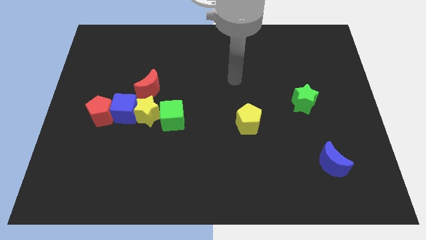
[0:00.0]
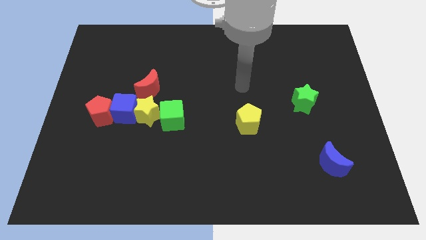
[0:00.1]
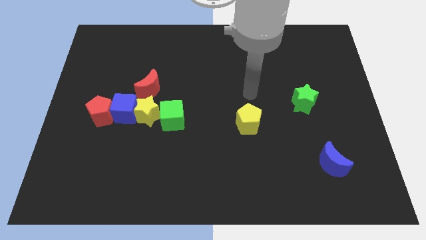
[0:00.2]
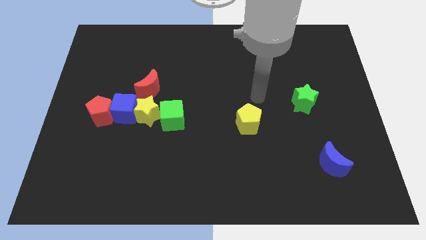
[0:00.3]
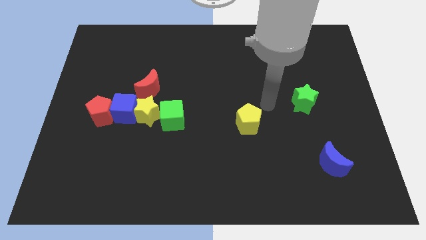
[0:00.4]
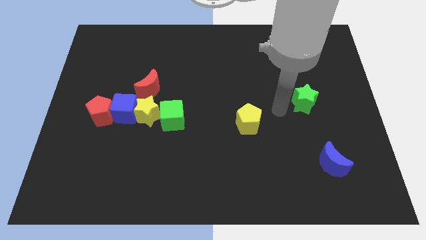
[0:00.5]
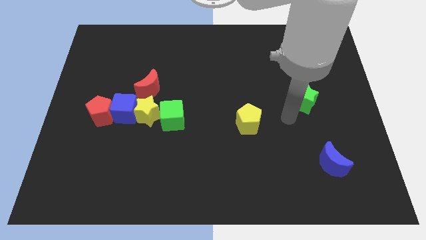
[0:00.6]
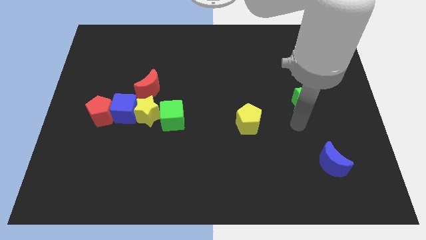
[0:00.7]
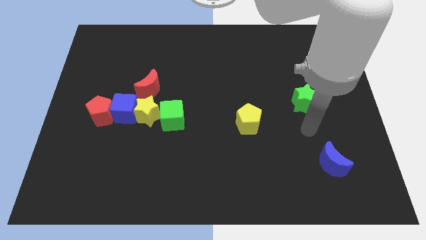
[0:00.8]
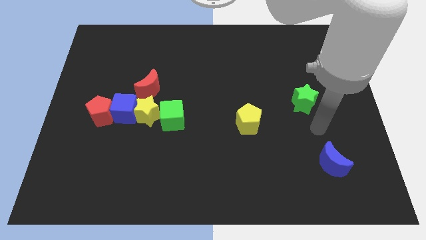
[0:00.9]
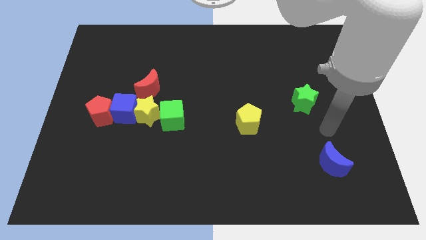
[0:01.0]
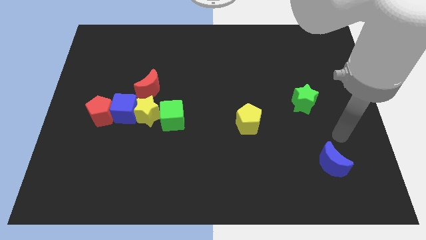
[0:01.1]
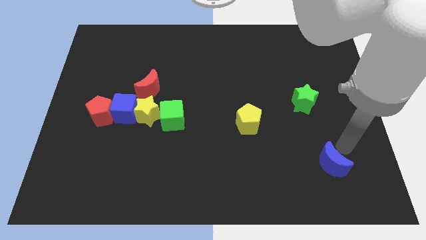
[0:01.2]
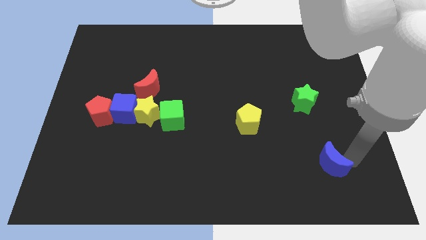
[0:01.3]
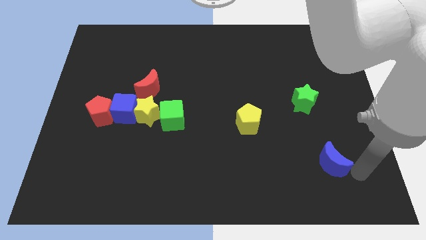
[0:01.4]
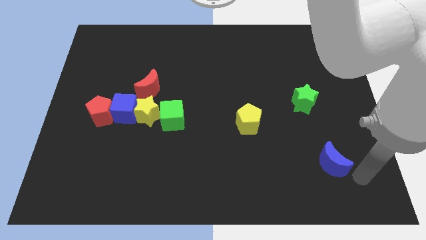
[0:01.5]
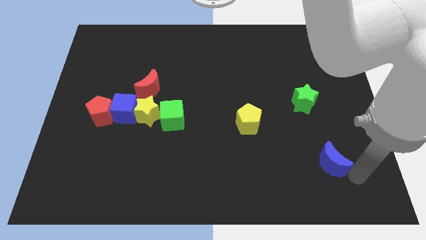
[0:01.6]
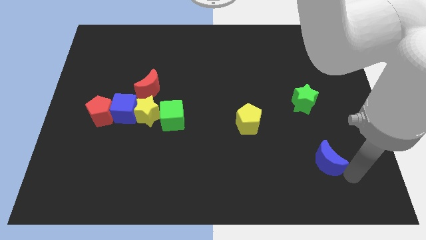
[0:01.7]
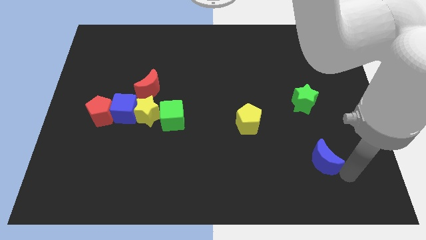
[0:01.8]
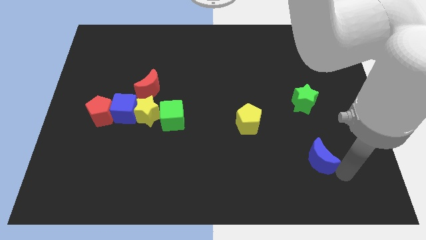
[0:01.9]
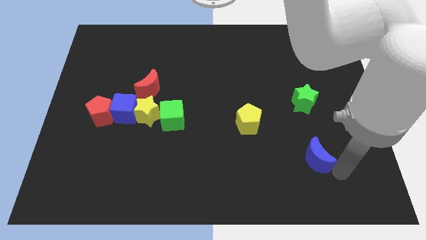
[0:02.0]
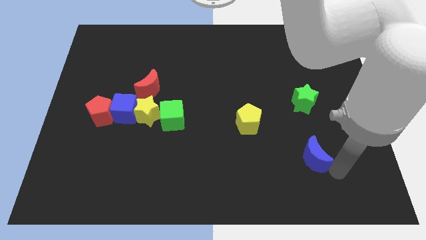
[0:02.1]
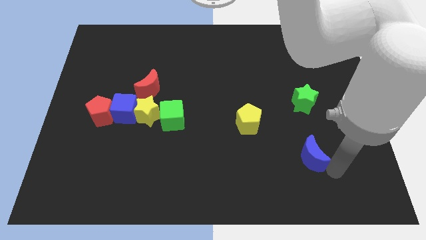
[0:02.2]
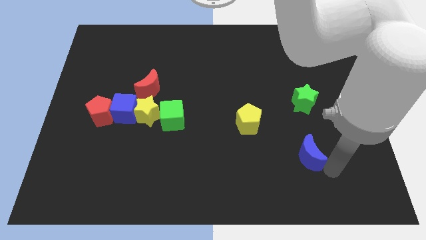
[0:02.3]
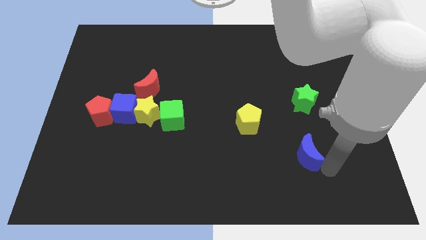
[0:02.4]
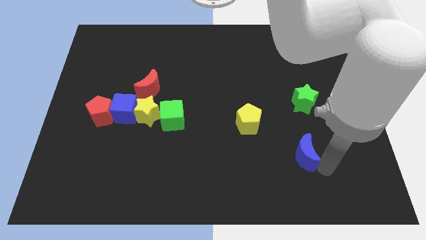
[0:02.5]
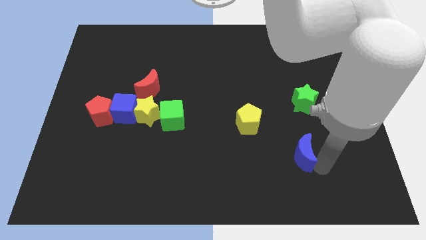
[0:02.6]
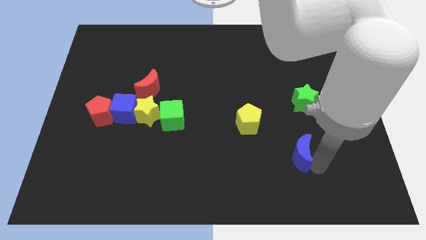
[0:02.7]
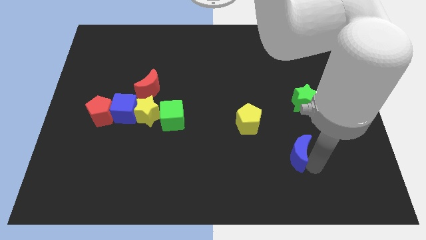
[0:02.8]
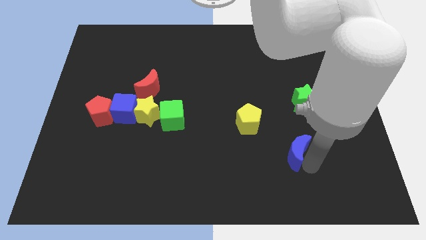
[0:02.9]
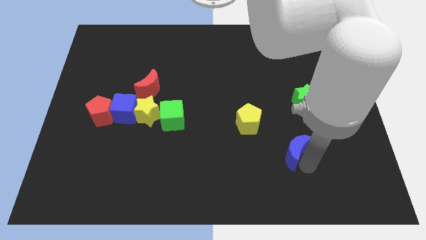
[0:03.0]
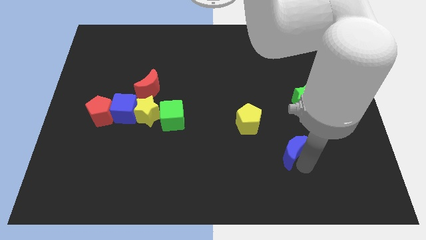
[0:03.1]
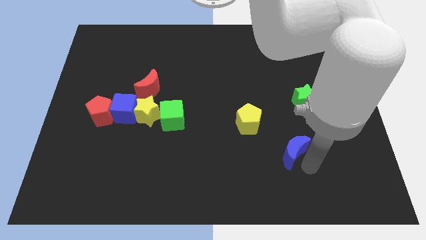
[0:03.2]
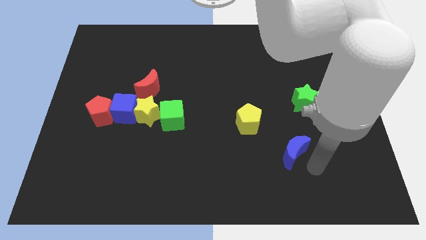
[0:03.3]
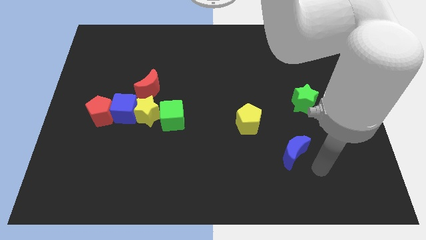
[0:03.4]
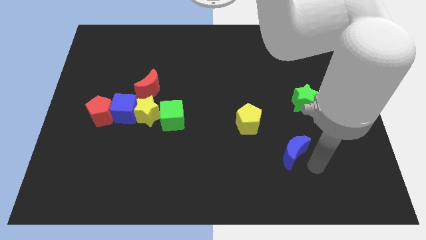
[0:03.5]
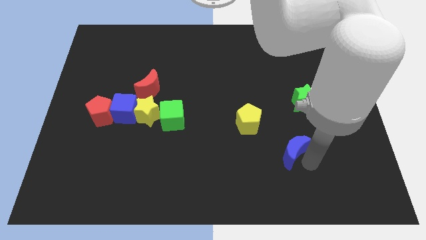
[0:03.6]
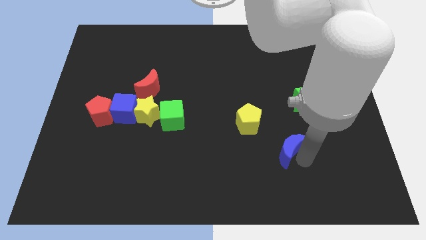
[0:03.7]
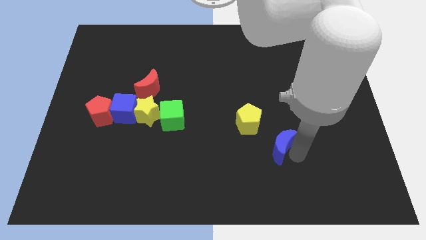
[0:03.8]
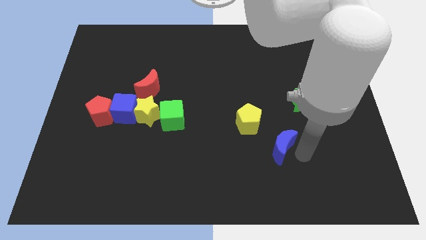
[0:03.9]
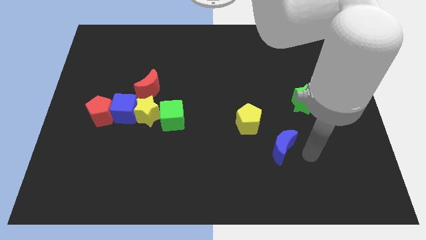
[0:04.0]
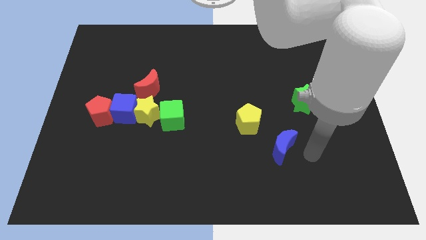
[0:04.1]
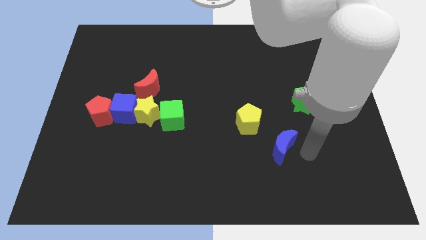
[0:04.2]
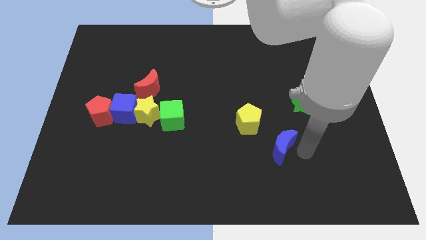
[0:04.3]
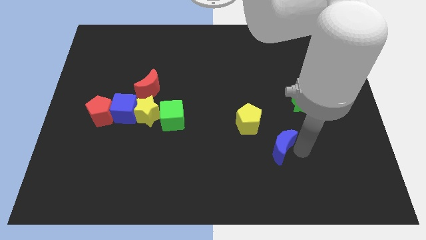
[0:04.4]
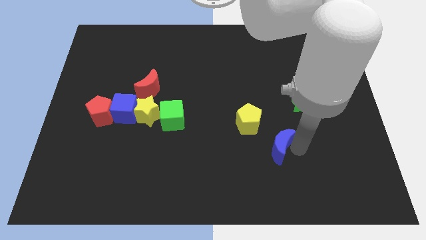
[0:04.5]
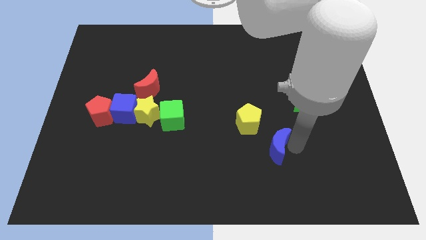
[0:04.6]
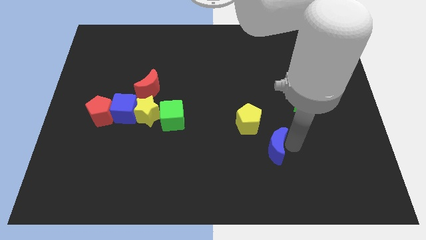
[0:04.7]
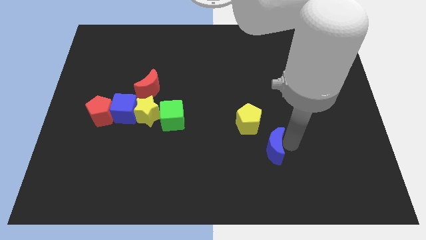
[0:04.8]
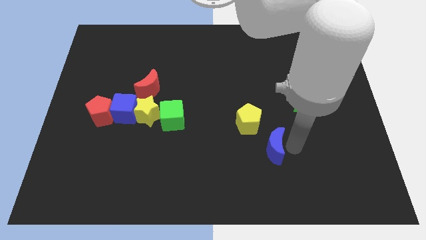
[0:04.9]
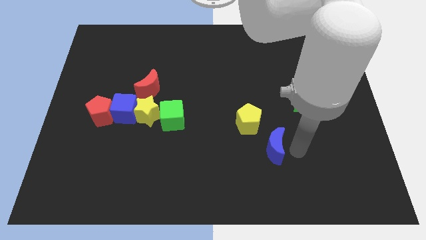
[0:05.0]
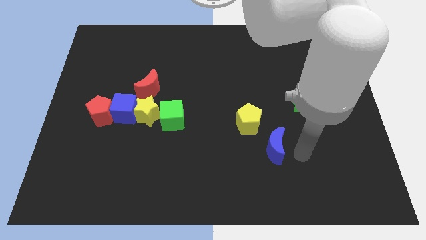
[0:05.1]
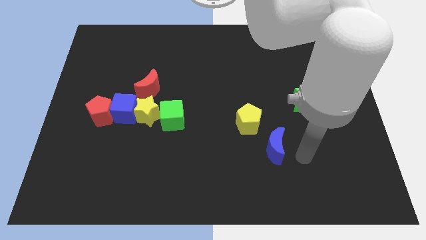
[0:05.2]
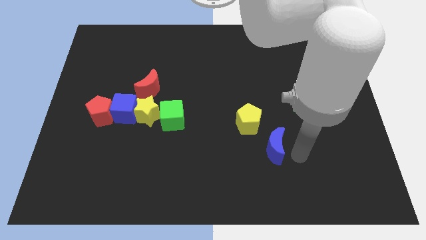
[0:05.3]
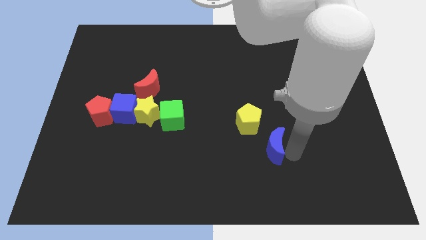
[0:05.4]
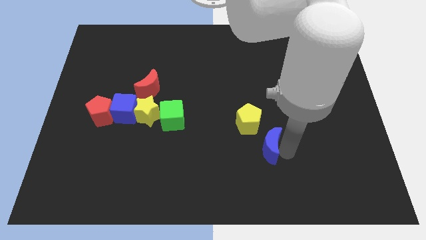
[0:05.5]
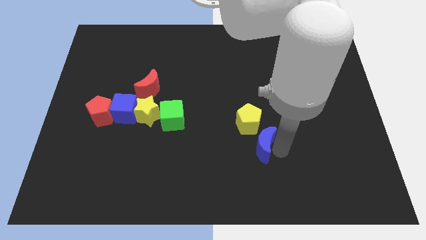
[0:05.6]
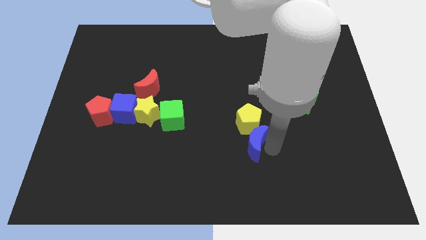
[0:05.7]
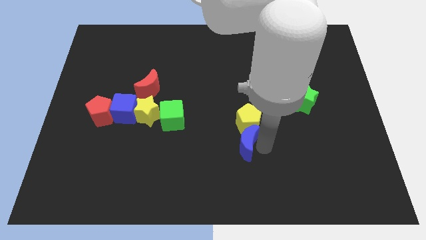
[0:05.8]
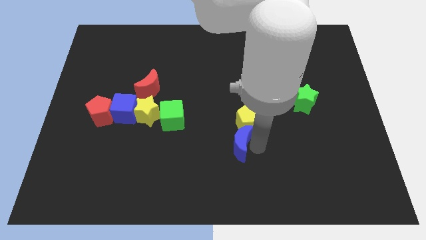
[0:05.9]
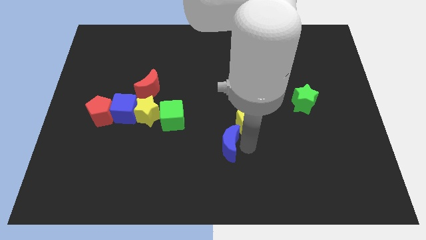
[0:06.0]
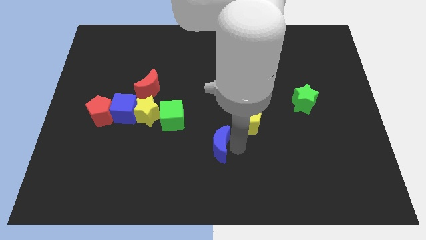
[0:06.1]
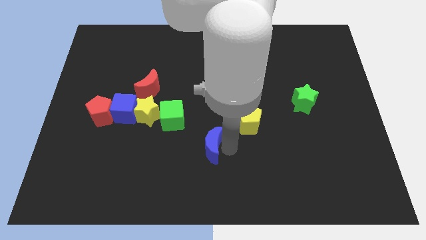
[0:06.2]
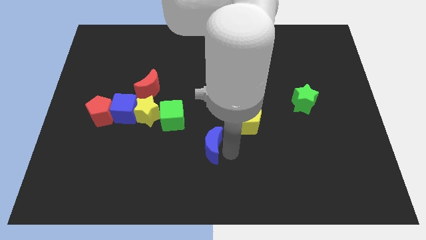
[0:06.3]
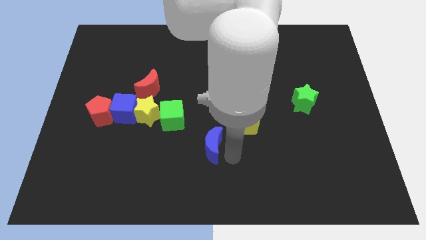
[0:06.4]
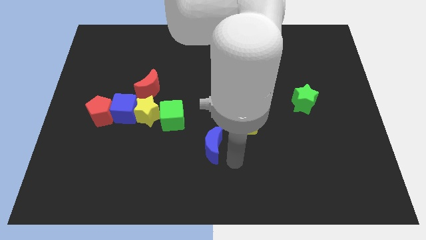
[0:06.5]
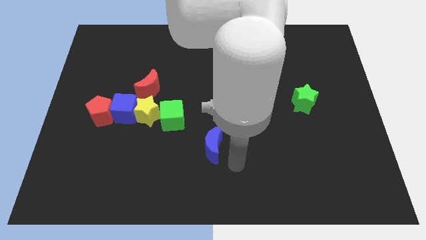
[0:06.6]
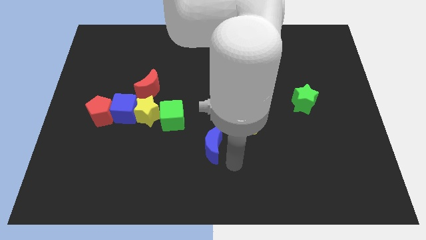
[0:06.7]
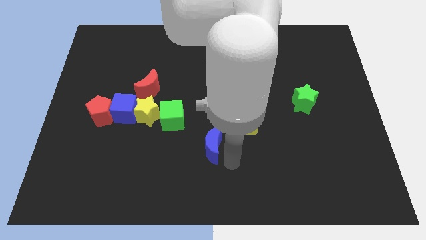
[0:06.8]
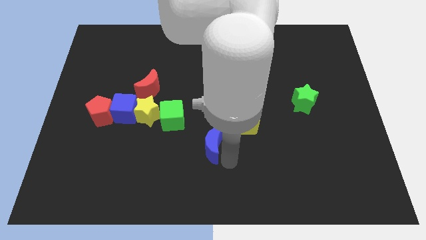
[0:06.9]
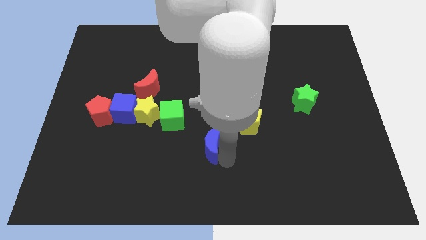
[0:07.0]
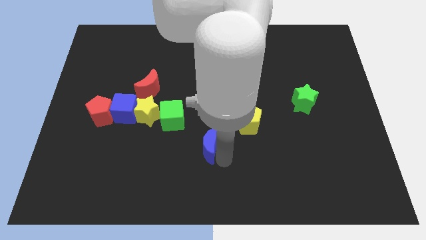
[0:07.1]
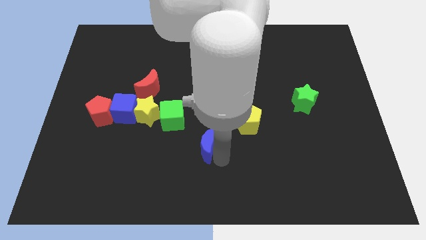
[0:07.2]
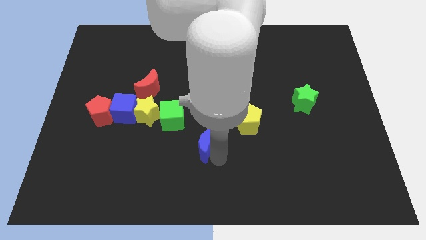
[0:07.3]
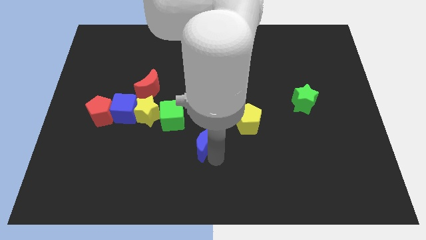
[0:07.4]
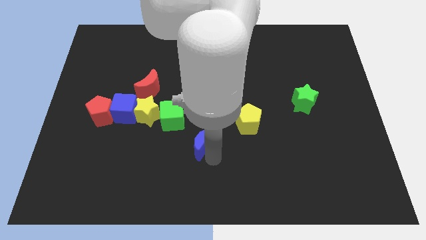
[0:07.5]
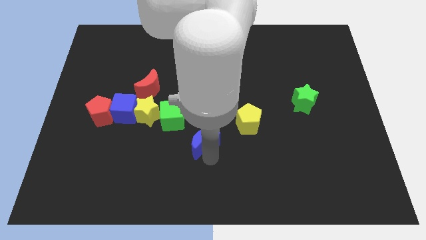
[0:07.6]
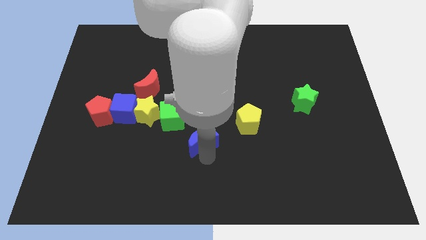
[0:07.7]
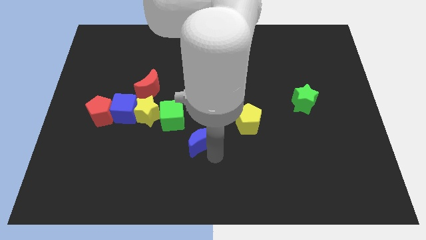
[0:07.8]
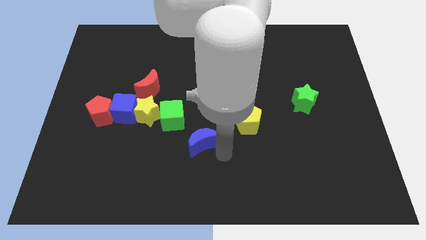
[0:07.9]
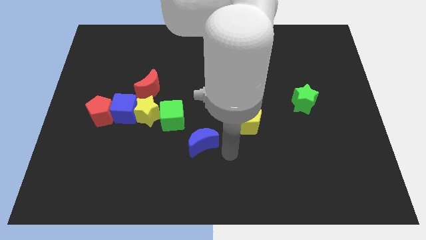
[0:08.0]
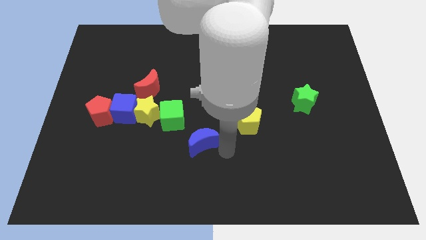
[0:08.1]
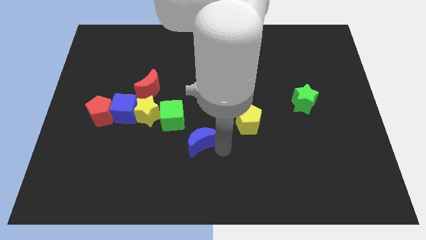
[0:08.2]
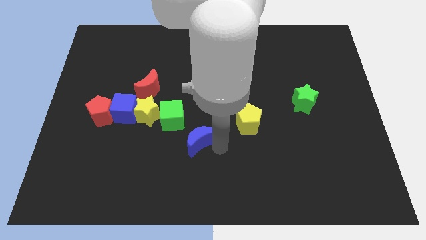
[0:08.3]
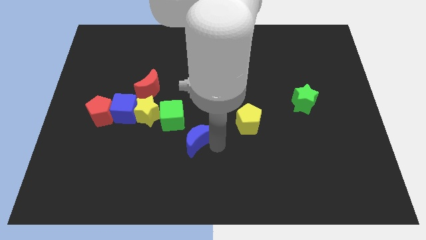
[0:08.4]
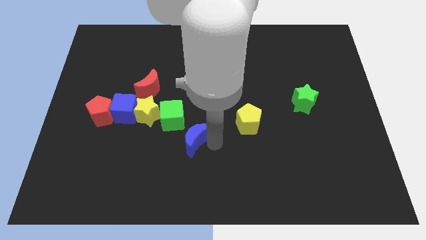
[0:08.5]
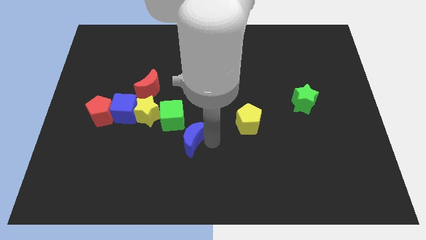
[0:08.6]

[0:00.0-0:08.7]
move the blue moon diagonally down and to the right of the yellow star
